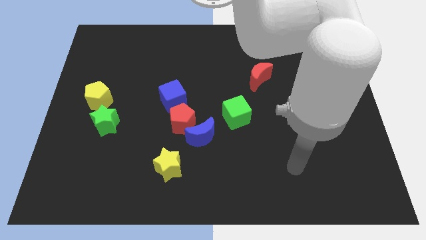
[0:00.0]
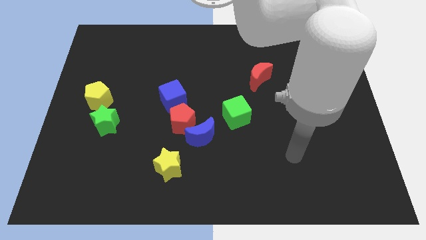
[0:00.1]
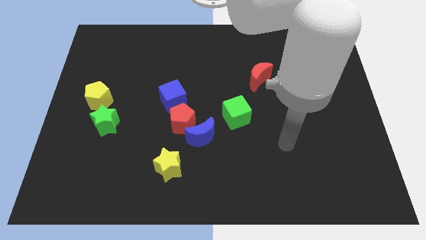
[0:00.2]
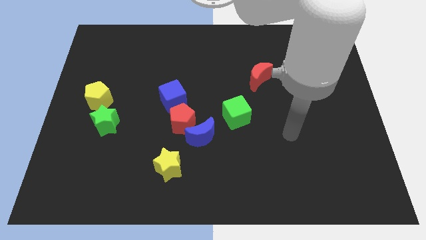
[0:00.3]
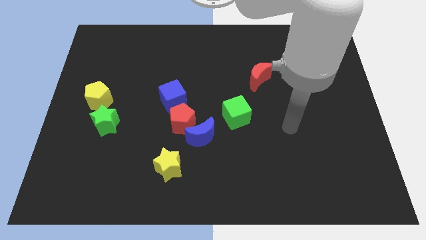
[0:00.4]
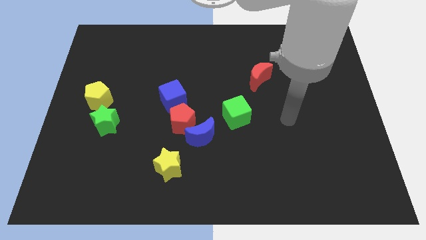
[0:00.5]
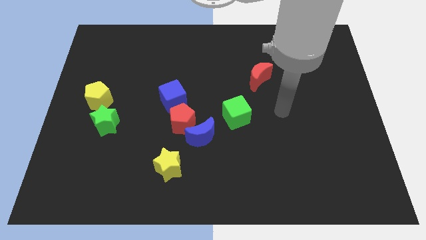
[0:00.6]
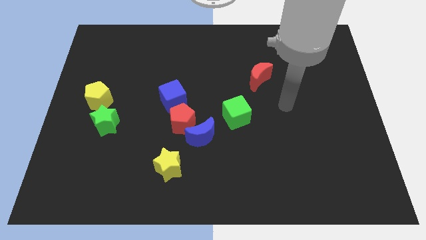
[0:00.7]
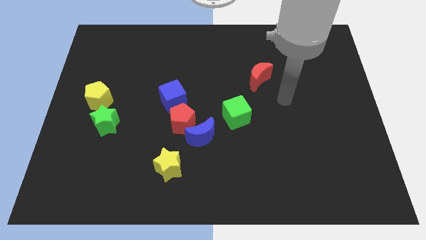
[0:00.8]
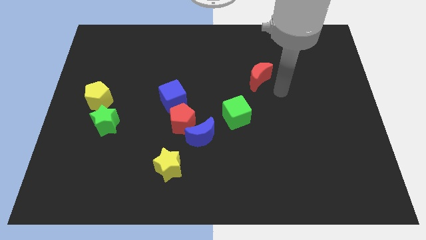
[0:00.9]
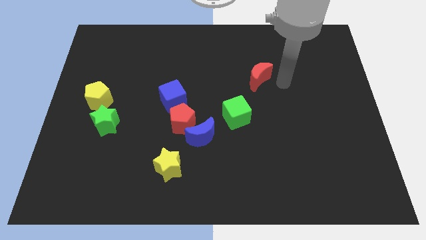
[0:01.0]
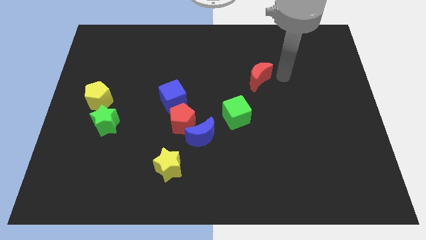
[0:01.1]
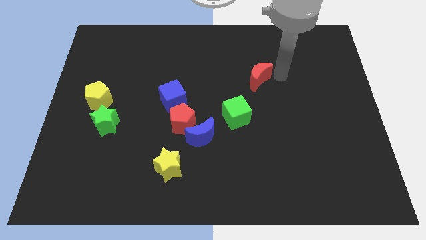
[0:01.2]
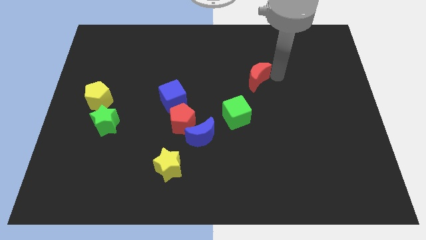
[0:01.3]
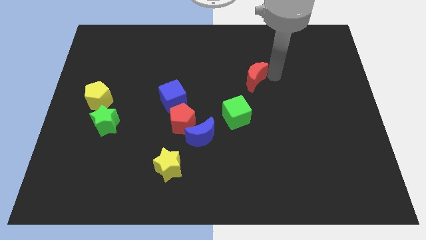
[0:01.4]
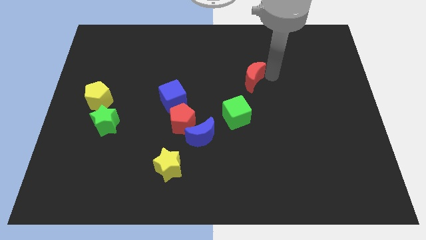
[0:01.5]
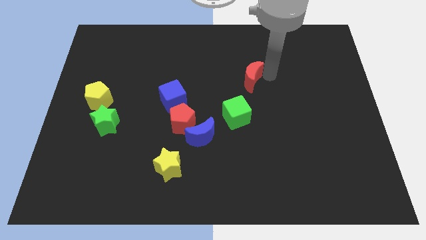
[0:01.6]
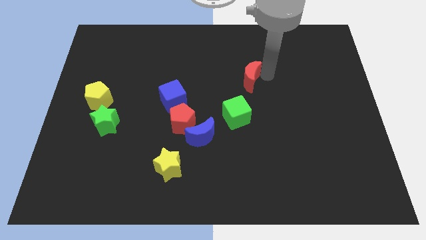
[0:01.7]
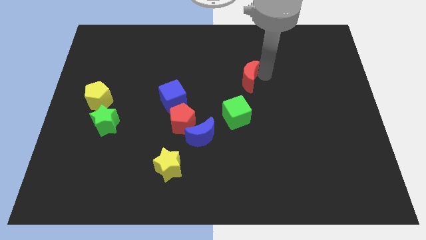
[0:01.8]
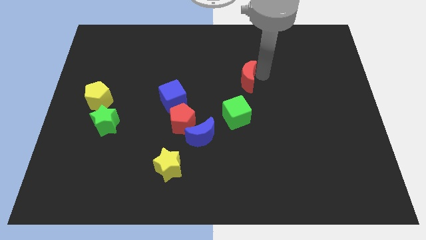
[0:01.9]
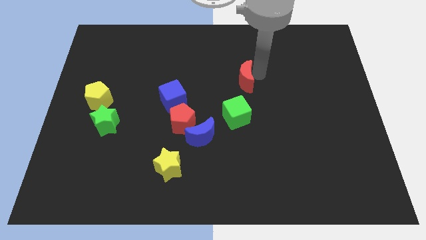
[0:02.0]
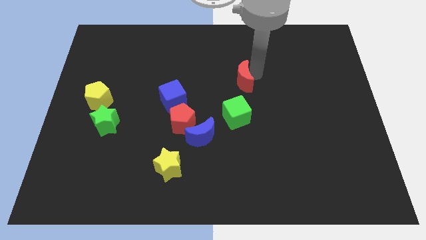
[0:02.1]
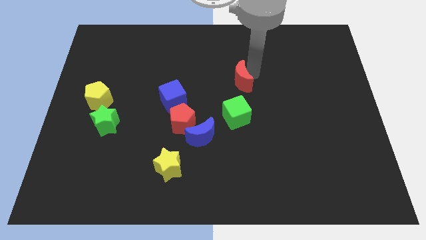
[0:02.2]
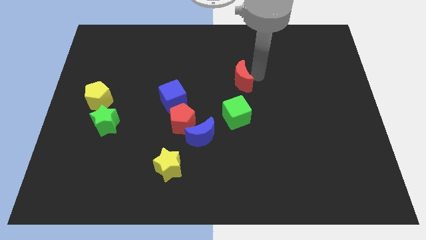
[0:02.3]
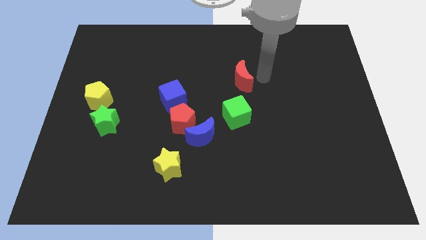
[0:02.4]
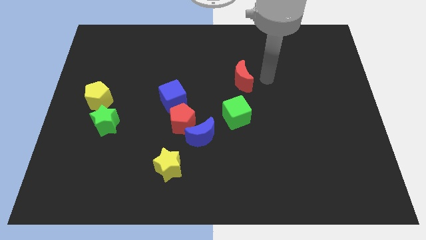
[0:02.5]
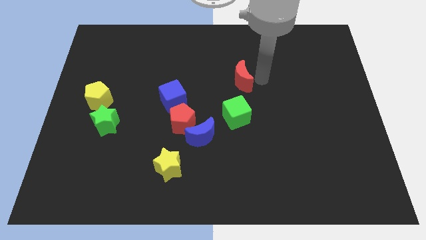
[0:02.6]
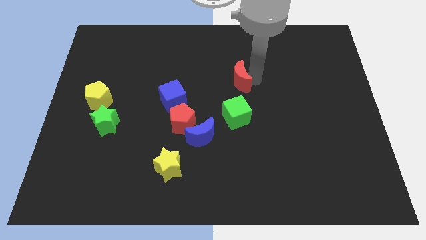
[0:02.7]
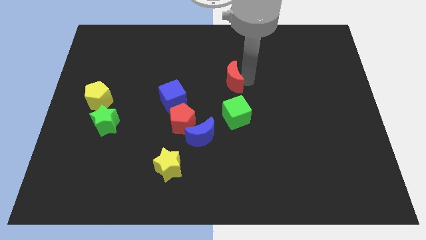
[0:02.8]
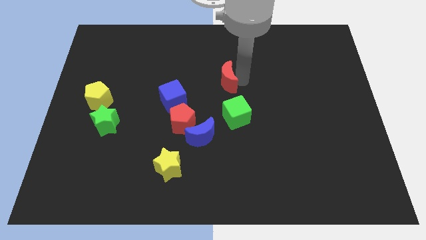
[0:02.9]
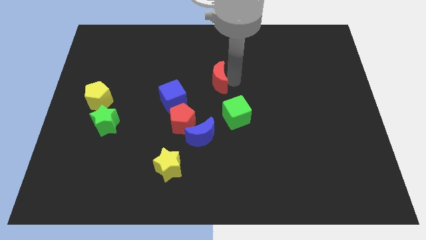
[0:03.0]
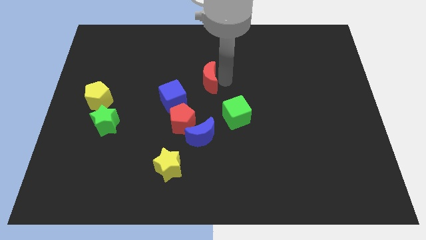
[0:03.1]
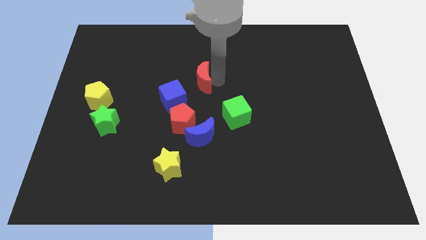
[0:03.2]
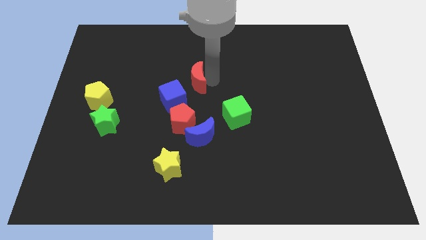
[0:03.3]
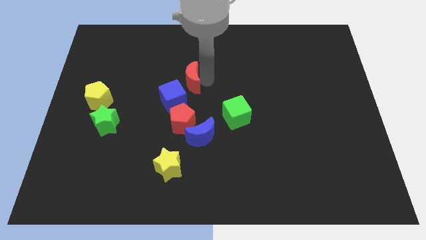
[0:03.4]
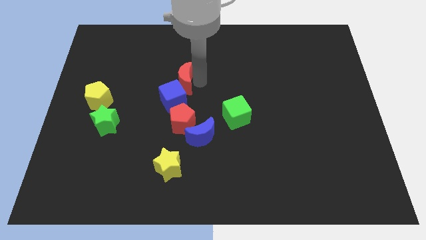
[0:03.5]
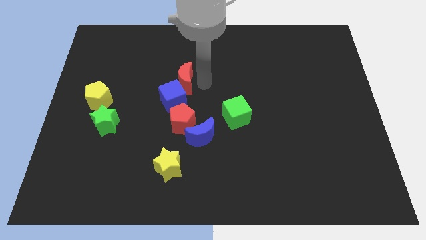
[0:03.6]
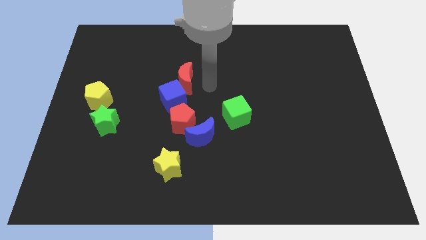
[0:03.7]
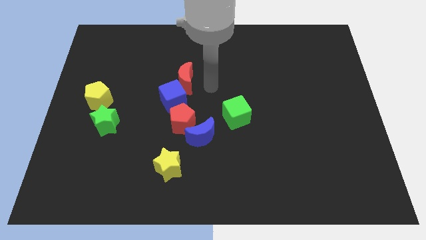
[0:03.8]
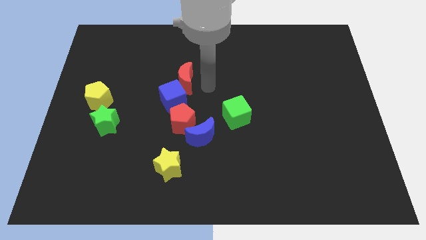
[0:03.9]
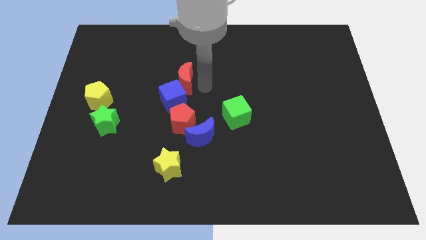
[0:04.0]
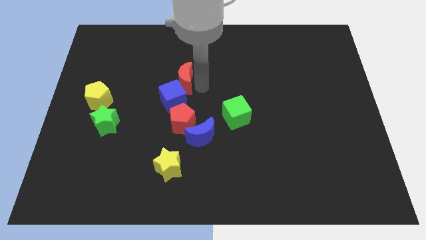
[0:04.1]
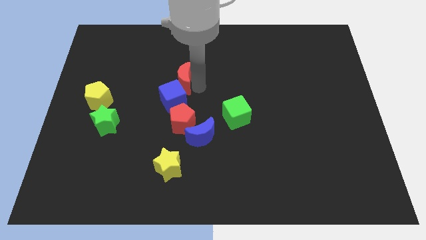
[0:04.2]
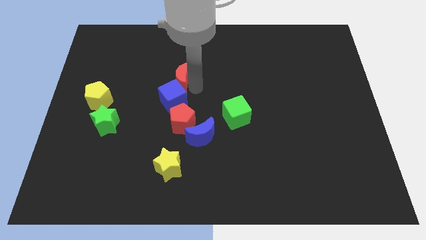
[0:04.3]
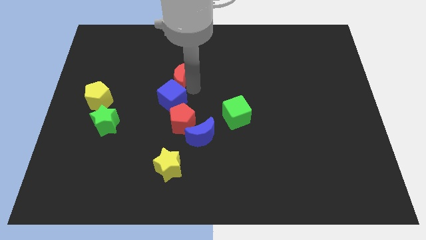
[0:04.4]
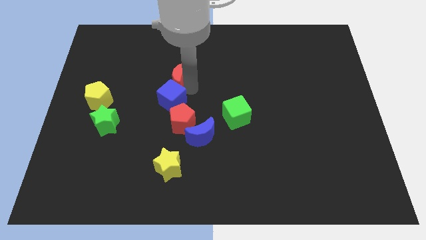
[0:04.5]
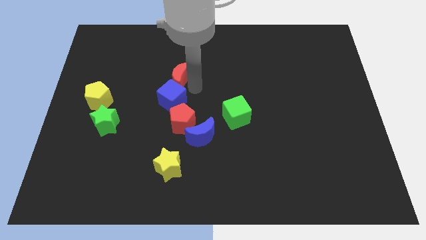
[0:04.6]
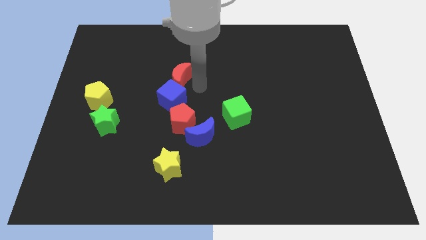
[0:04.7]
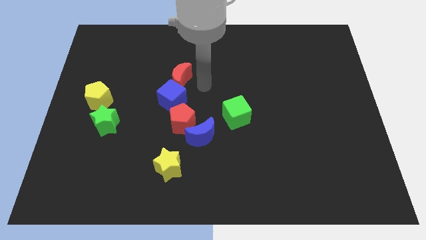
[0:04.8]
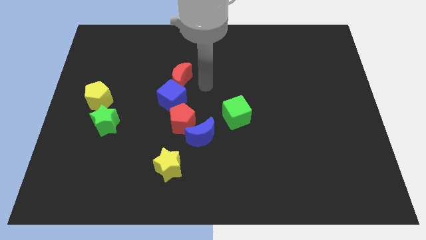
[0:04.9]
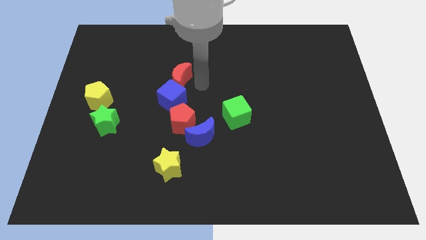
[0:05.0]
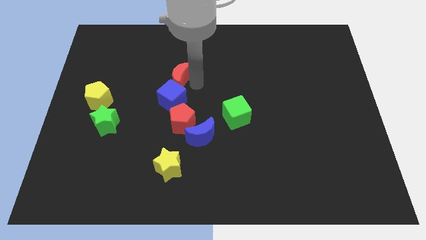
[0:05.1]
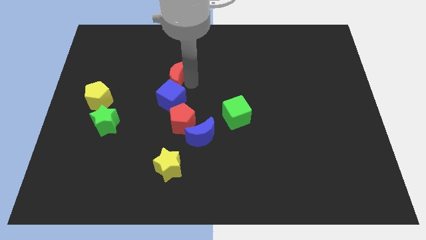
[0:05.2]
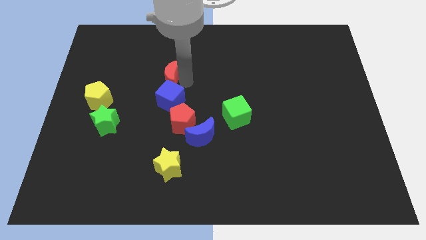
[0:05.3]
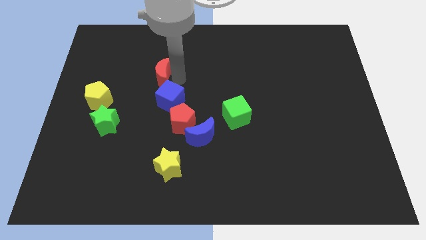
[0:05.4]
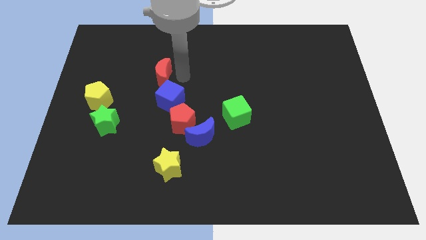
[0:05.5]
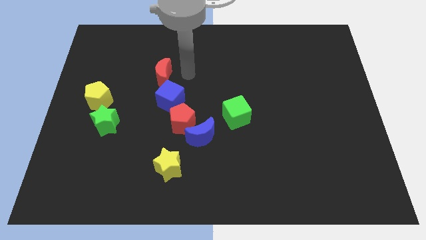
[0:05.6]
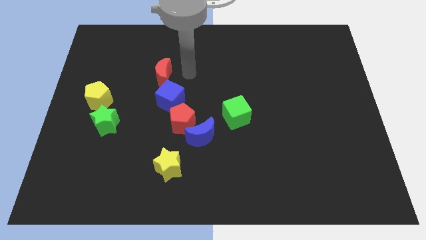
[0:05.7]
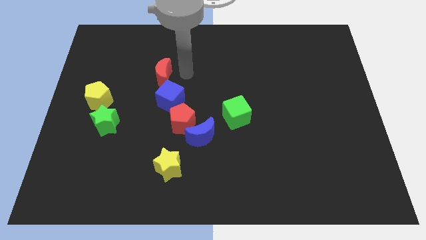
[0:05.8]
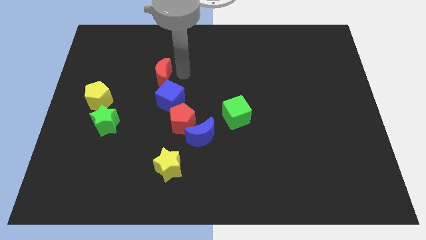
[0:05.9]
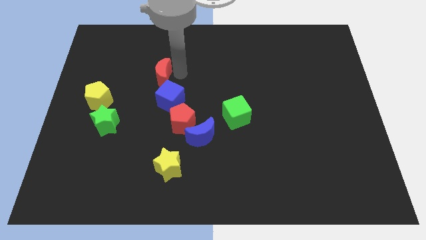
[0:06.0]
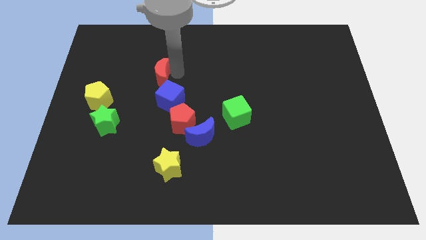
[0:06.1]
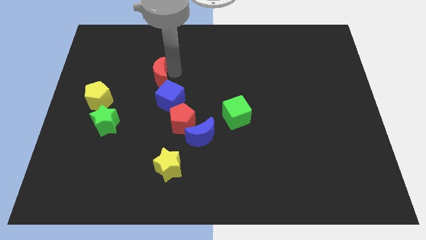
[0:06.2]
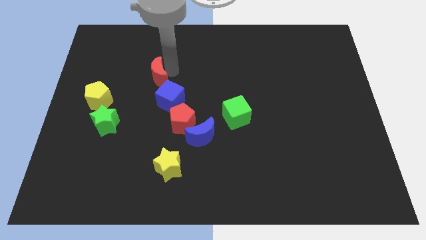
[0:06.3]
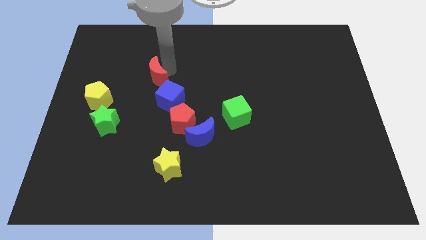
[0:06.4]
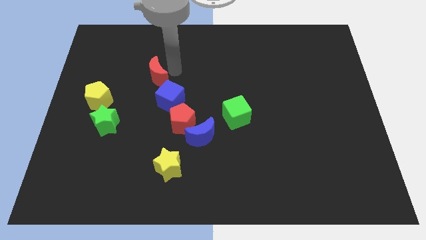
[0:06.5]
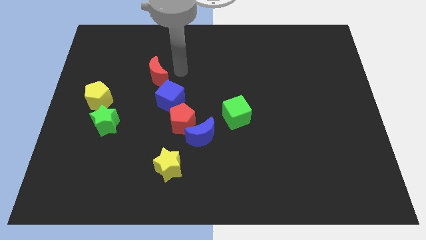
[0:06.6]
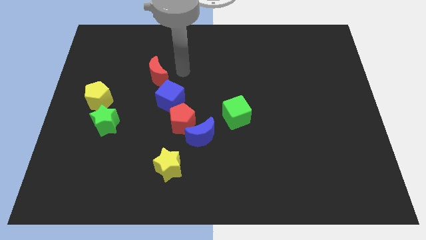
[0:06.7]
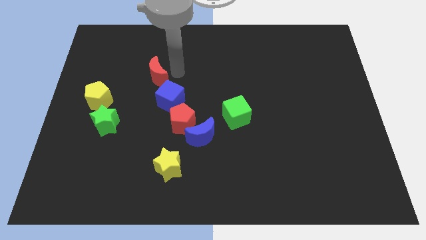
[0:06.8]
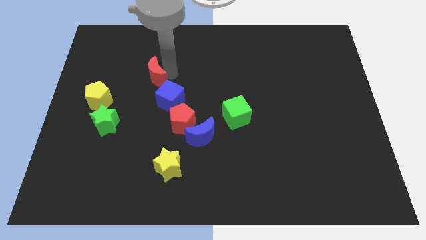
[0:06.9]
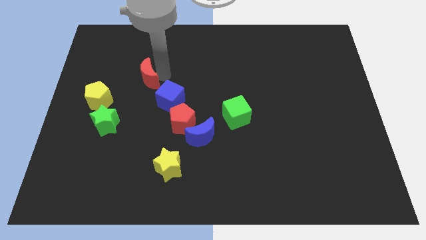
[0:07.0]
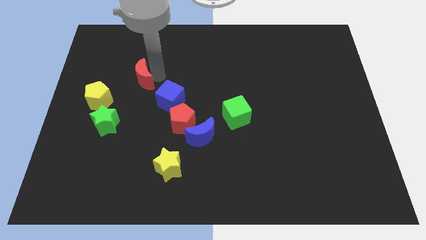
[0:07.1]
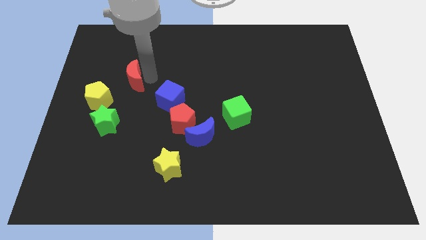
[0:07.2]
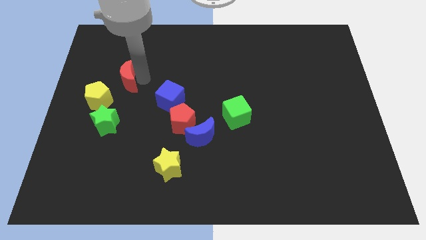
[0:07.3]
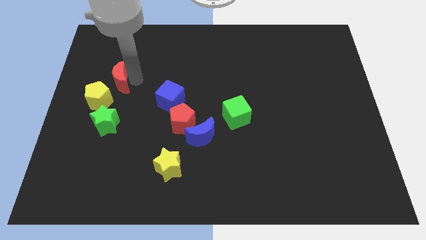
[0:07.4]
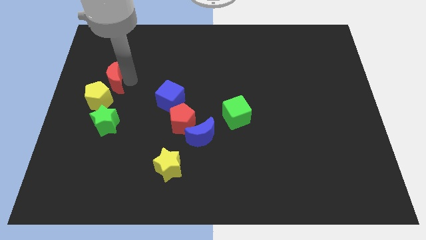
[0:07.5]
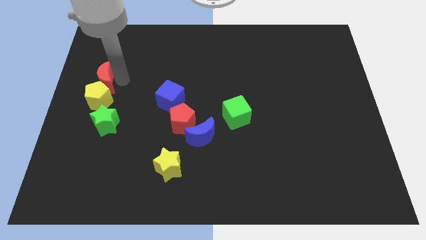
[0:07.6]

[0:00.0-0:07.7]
move the red moon to the left side
